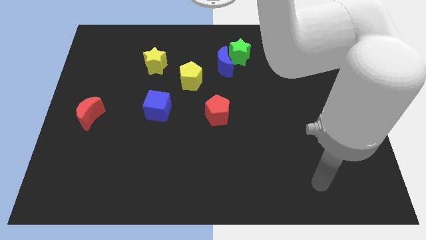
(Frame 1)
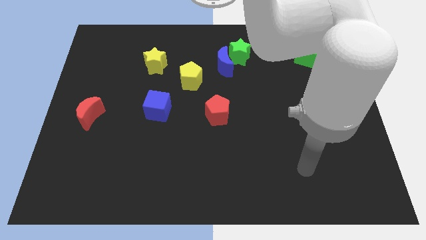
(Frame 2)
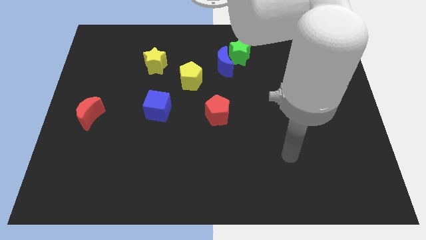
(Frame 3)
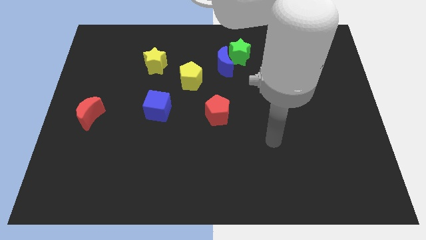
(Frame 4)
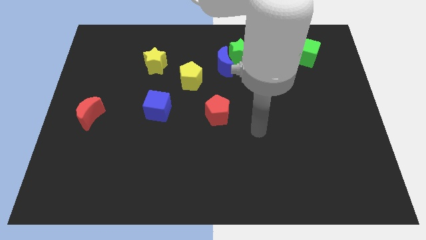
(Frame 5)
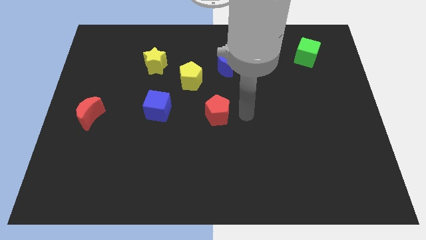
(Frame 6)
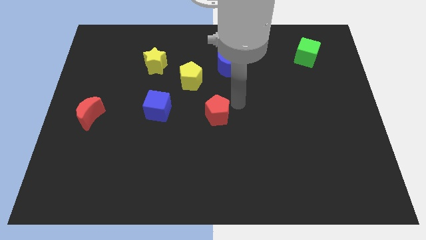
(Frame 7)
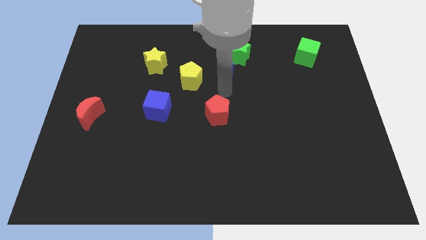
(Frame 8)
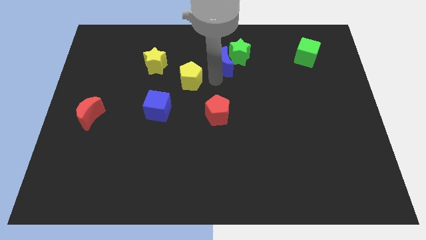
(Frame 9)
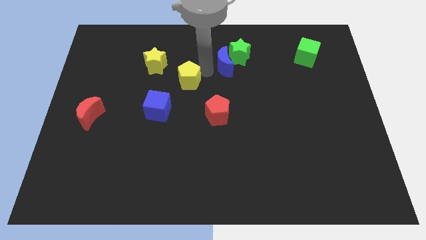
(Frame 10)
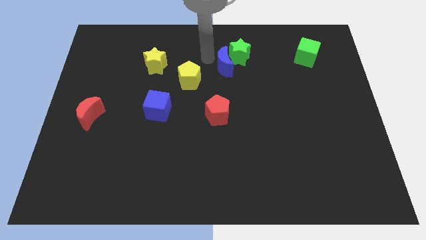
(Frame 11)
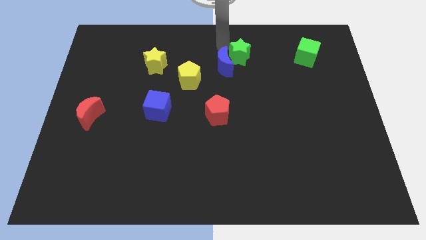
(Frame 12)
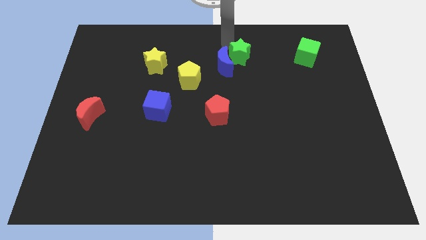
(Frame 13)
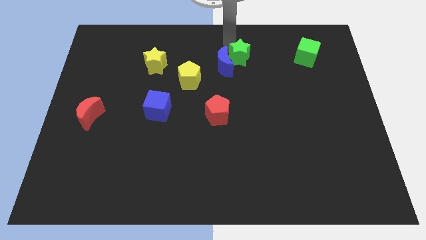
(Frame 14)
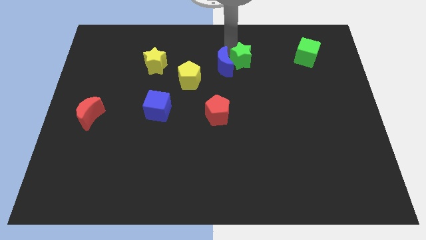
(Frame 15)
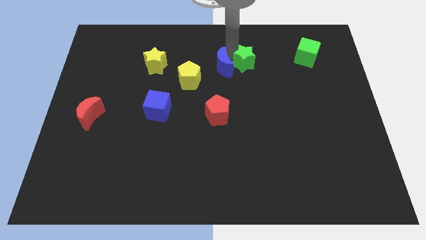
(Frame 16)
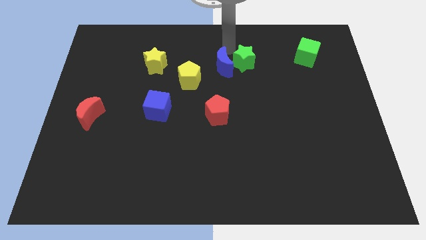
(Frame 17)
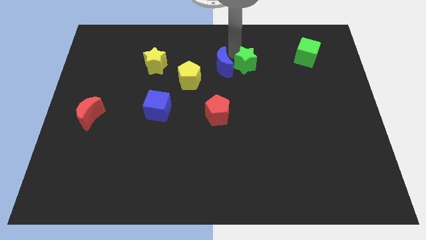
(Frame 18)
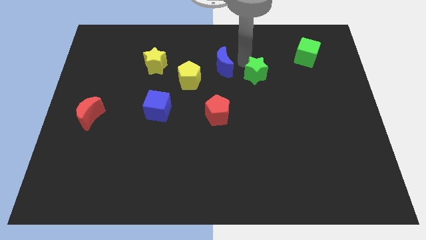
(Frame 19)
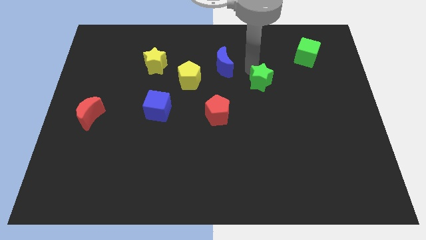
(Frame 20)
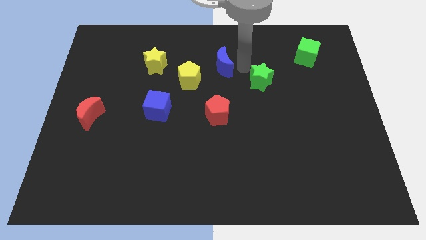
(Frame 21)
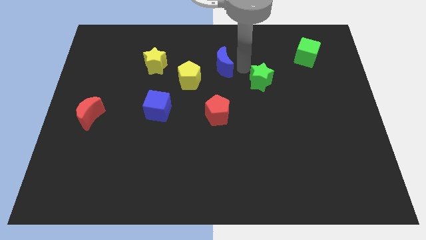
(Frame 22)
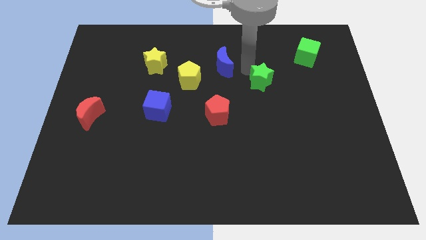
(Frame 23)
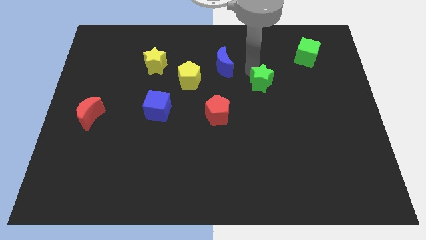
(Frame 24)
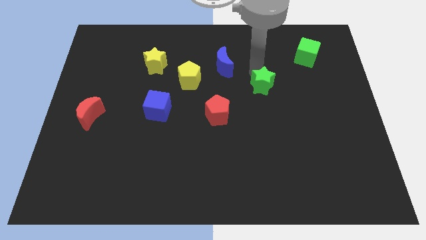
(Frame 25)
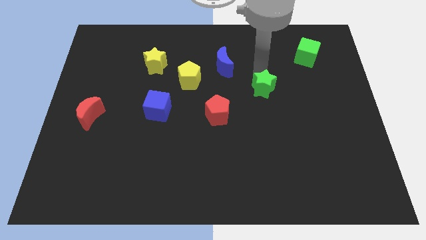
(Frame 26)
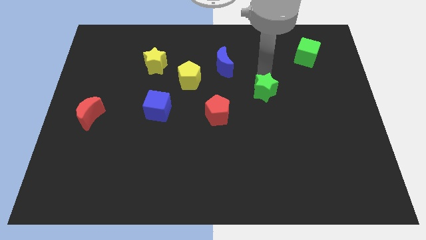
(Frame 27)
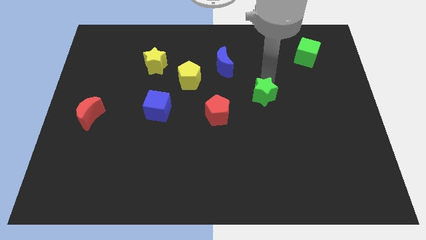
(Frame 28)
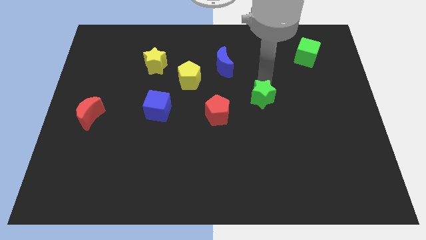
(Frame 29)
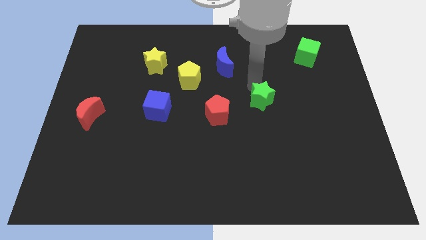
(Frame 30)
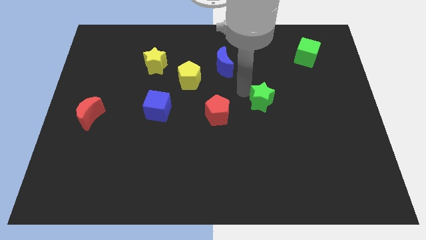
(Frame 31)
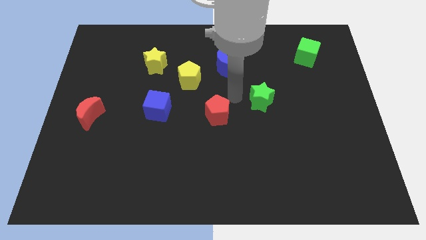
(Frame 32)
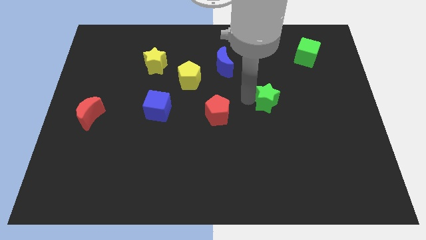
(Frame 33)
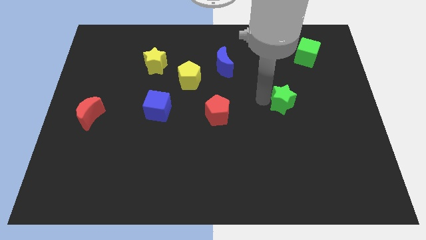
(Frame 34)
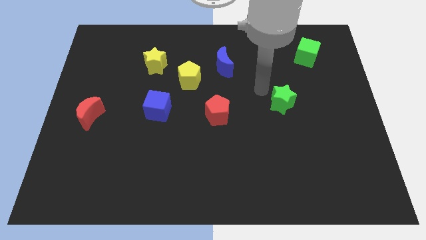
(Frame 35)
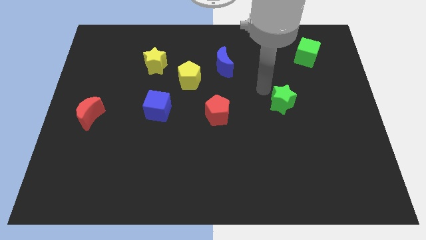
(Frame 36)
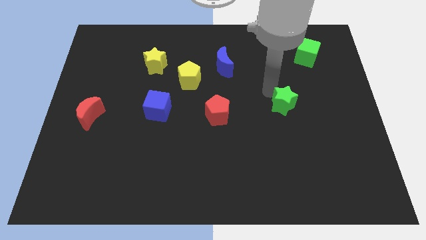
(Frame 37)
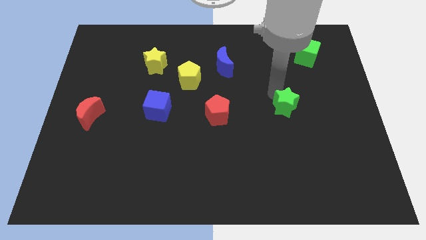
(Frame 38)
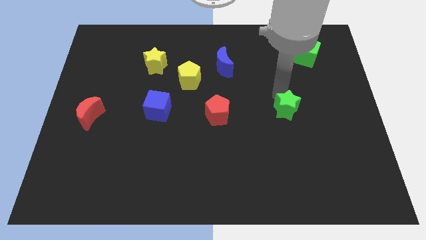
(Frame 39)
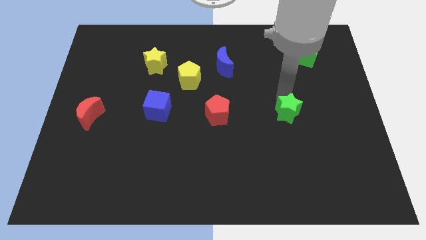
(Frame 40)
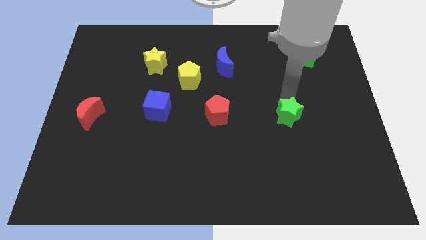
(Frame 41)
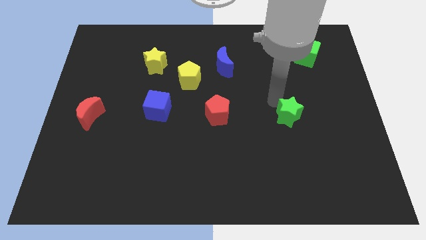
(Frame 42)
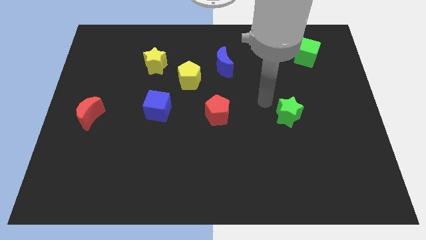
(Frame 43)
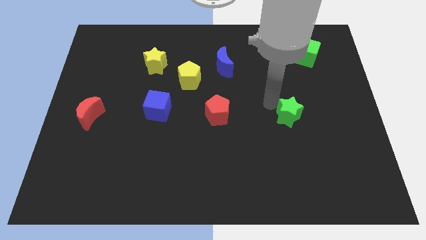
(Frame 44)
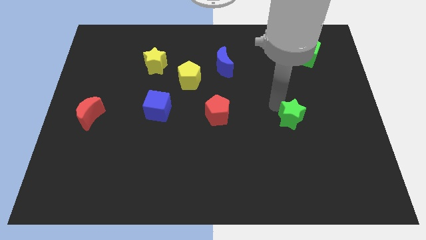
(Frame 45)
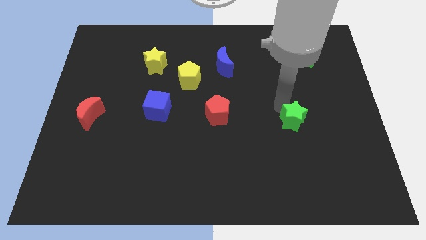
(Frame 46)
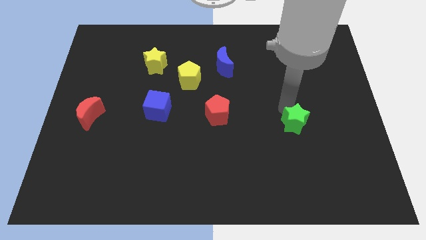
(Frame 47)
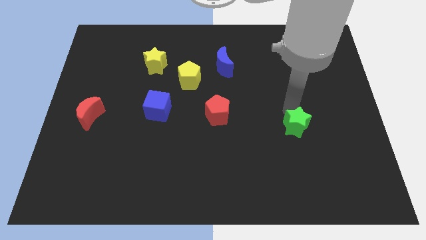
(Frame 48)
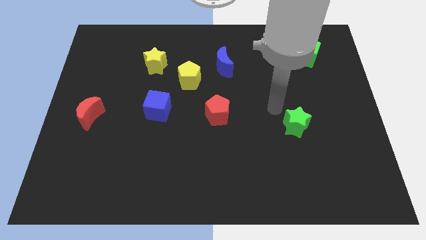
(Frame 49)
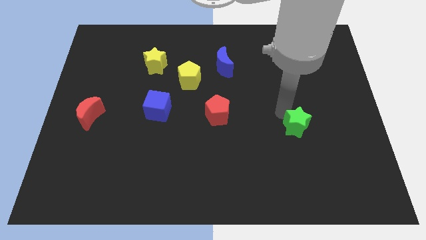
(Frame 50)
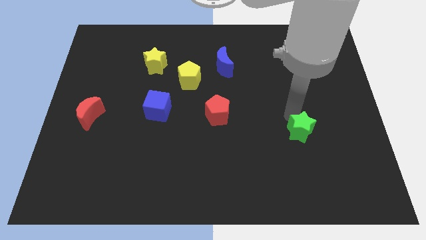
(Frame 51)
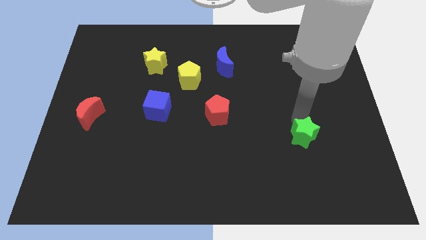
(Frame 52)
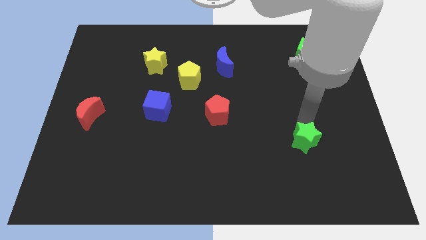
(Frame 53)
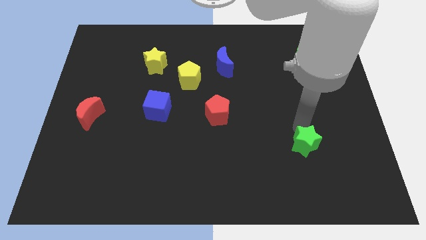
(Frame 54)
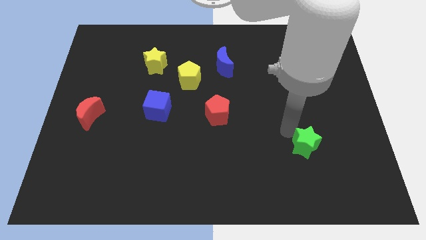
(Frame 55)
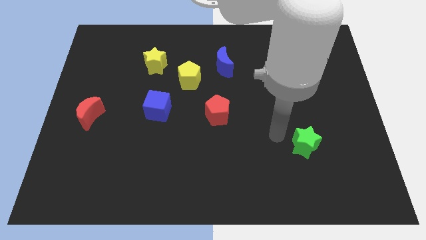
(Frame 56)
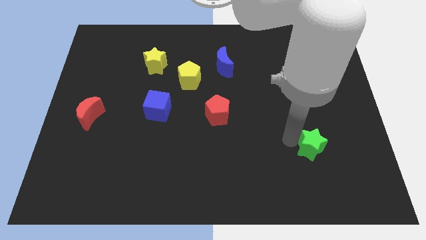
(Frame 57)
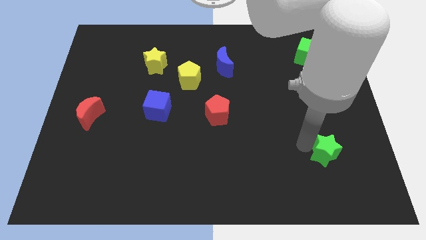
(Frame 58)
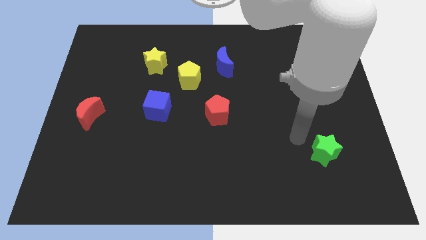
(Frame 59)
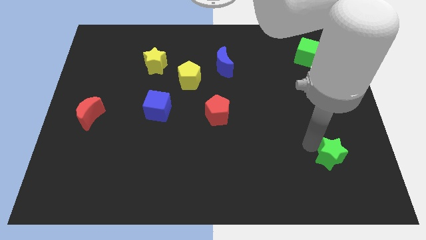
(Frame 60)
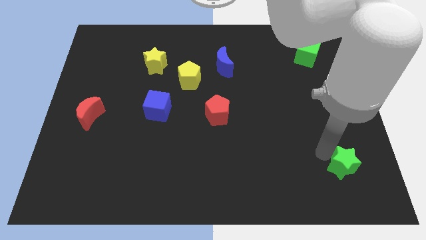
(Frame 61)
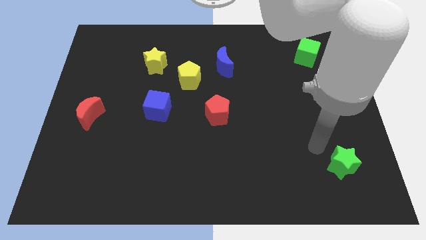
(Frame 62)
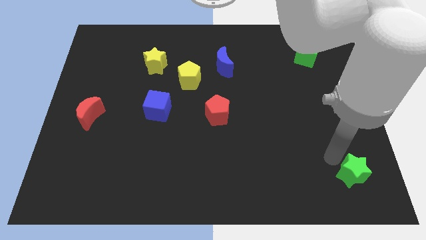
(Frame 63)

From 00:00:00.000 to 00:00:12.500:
push the green star to the bottom right
